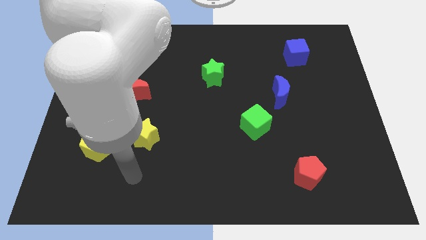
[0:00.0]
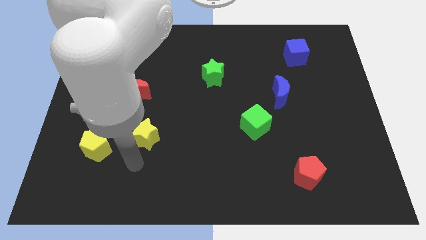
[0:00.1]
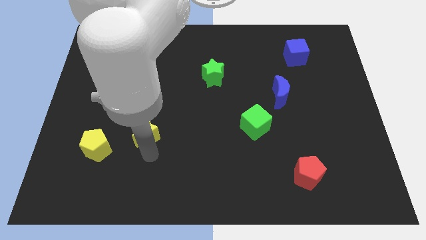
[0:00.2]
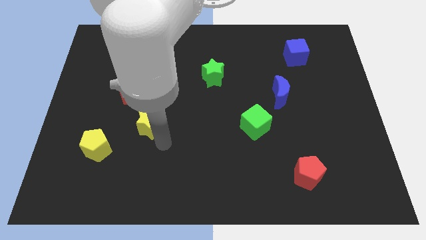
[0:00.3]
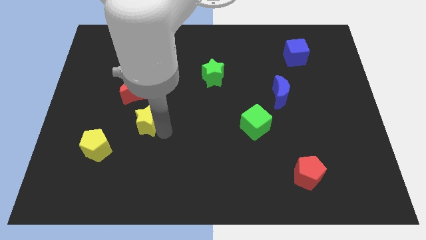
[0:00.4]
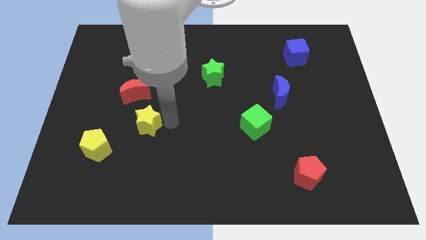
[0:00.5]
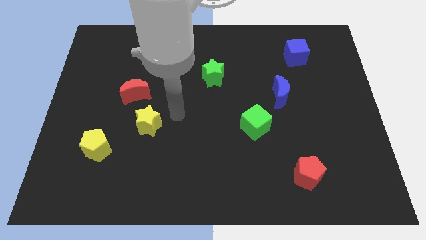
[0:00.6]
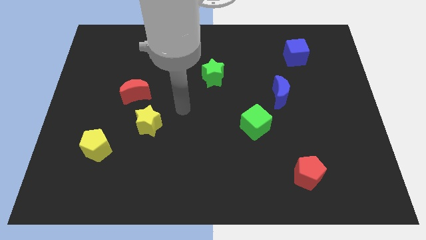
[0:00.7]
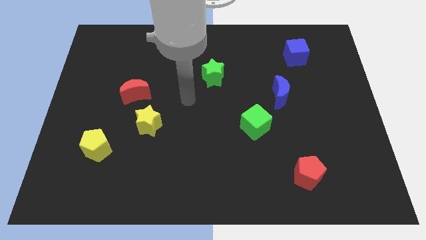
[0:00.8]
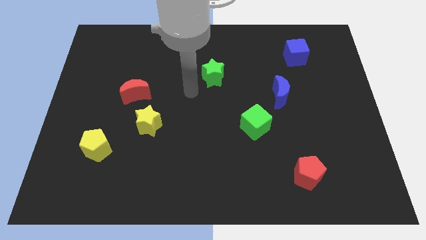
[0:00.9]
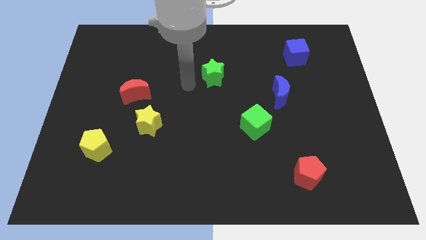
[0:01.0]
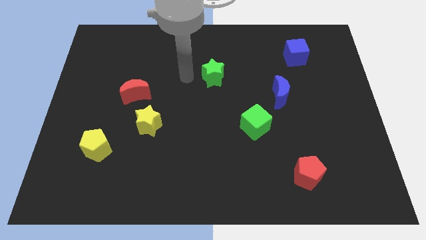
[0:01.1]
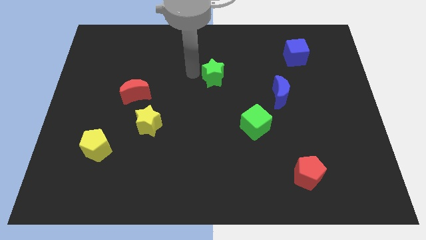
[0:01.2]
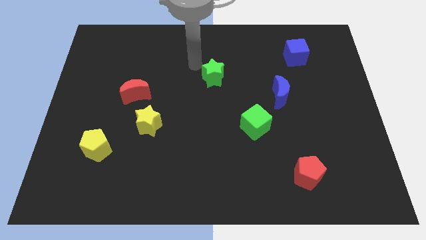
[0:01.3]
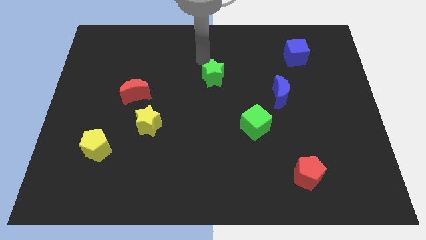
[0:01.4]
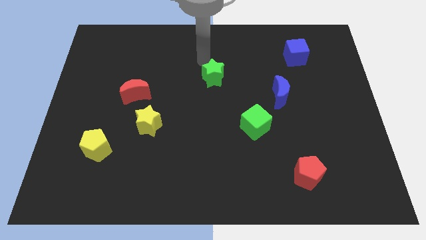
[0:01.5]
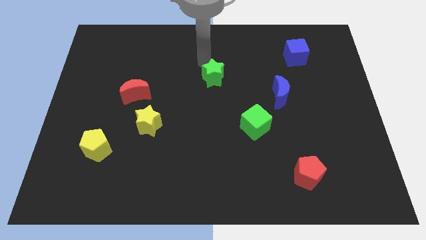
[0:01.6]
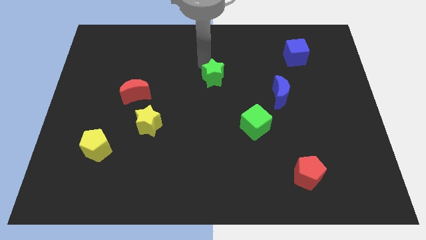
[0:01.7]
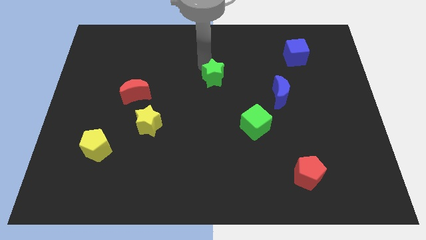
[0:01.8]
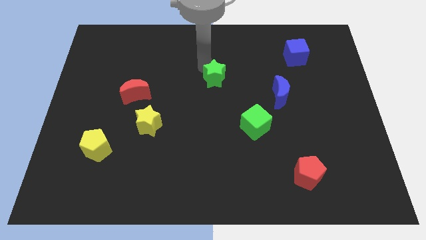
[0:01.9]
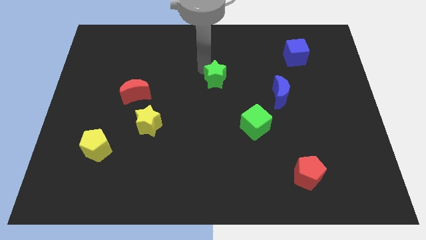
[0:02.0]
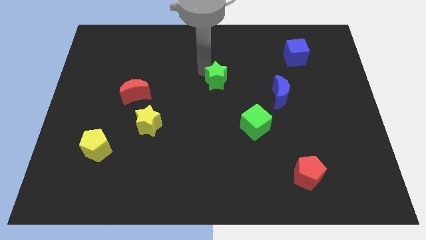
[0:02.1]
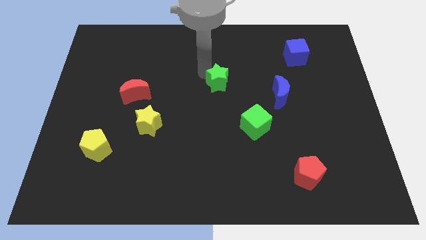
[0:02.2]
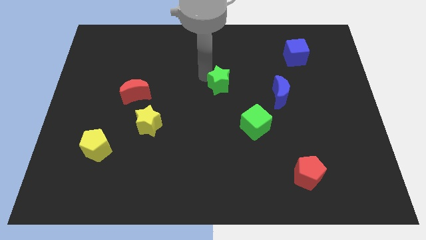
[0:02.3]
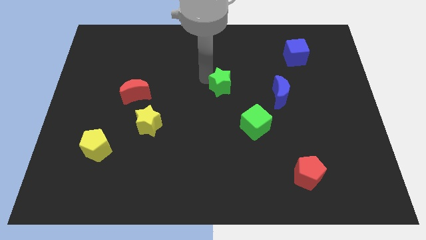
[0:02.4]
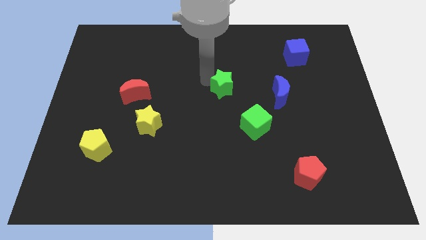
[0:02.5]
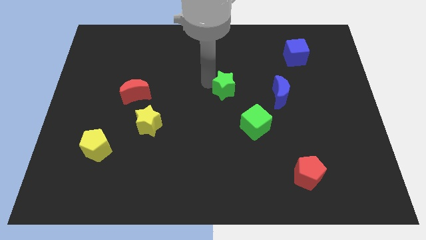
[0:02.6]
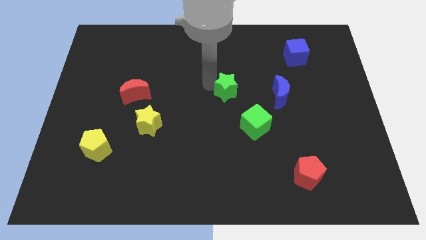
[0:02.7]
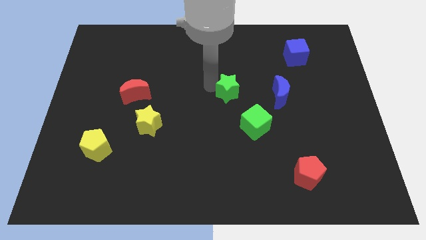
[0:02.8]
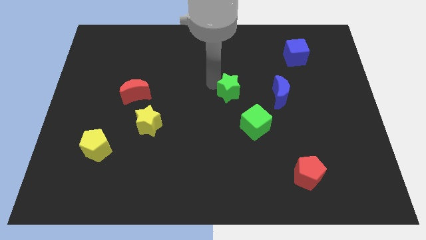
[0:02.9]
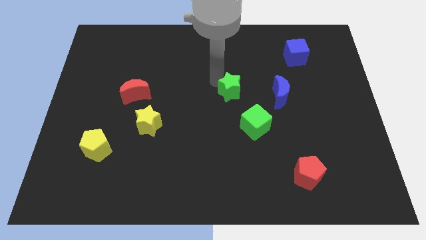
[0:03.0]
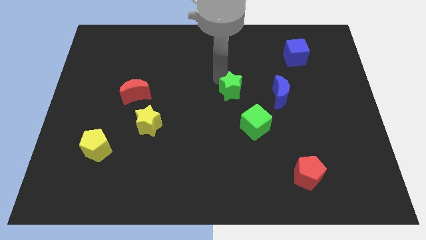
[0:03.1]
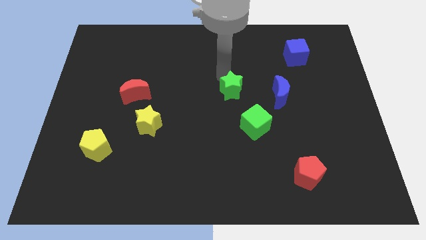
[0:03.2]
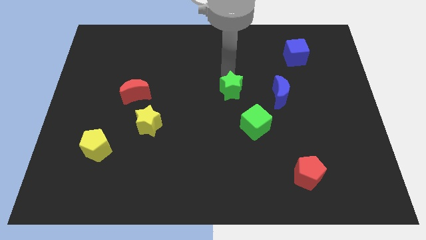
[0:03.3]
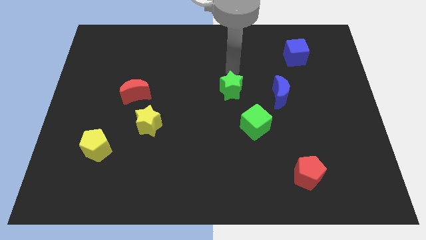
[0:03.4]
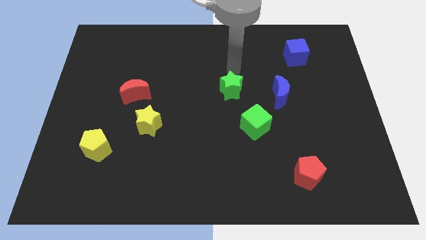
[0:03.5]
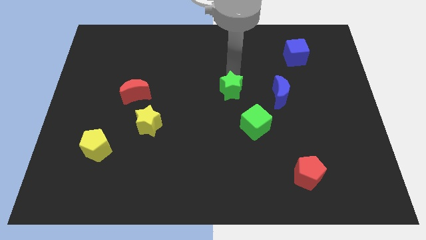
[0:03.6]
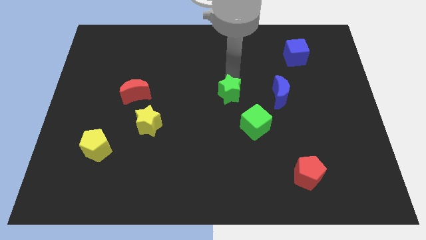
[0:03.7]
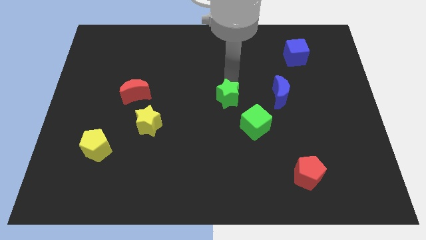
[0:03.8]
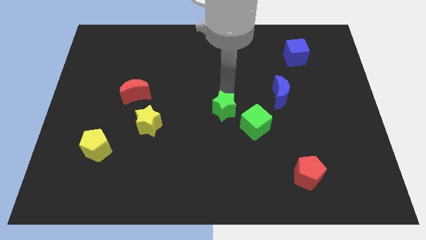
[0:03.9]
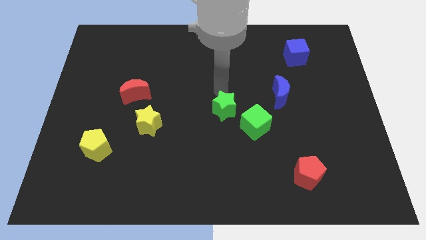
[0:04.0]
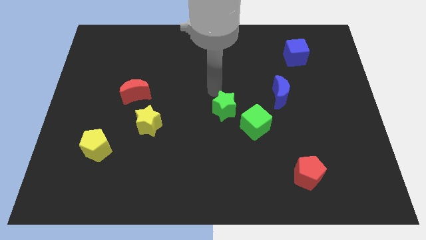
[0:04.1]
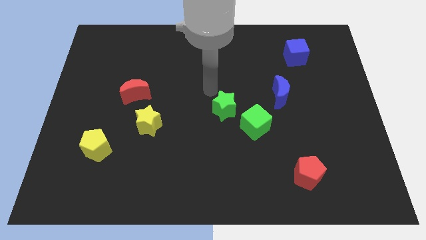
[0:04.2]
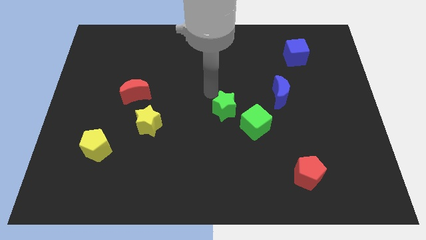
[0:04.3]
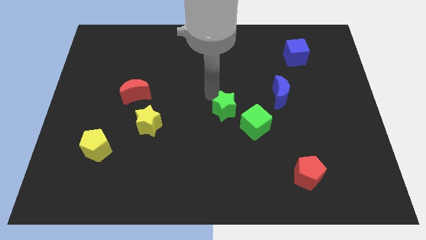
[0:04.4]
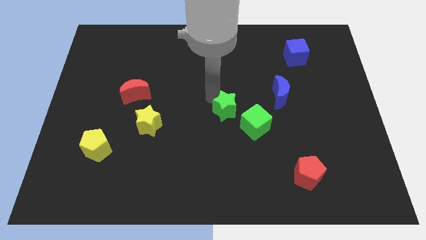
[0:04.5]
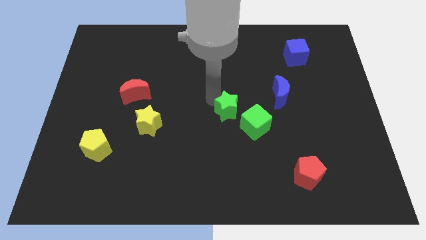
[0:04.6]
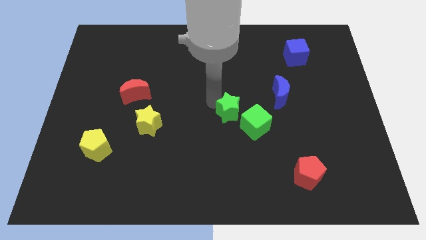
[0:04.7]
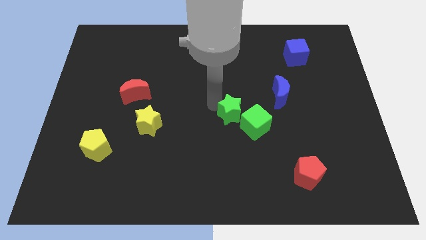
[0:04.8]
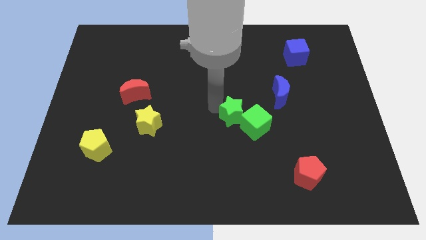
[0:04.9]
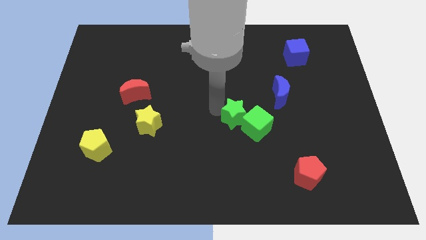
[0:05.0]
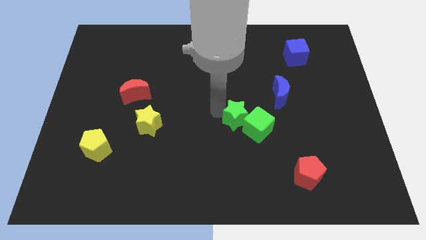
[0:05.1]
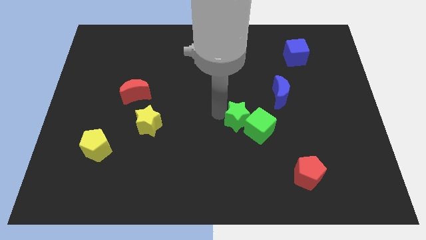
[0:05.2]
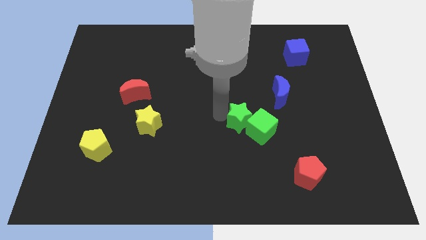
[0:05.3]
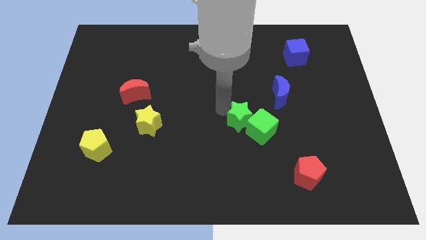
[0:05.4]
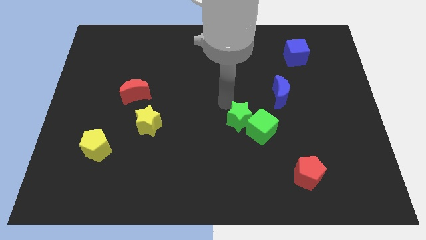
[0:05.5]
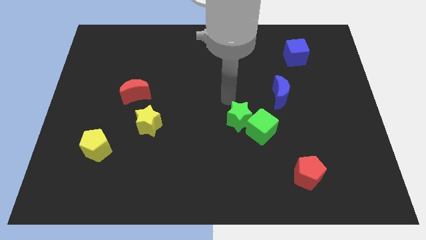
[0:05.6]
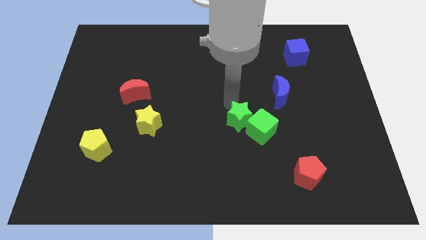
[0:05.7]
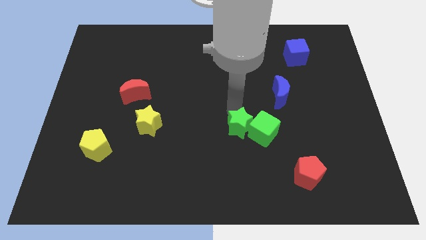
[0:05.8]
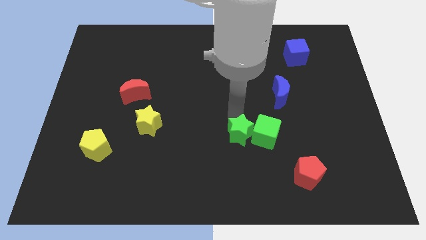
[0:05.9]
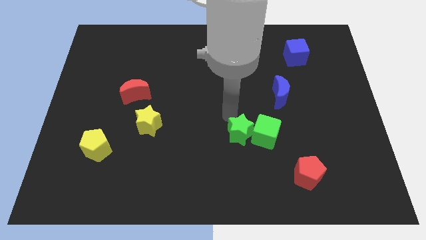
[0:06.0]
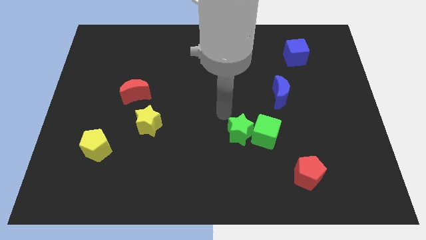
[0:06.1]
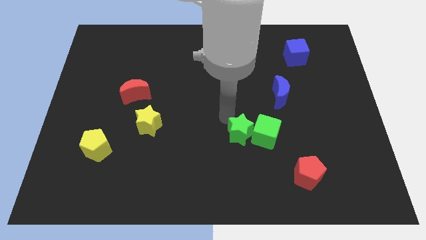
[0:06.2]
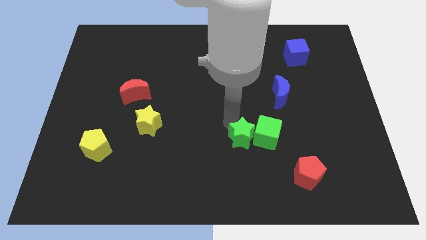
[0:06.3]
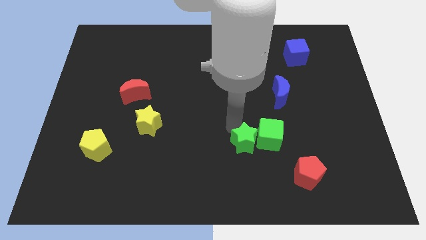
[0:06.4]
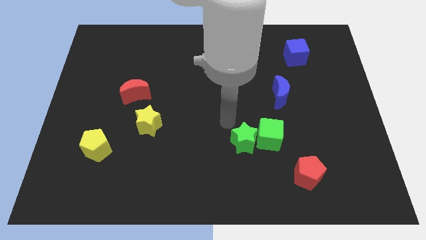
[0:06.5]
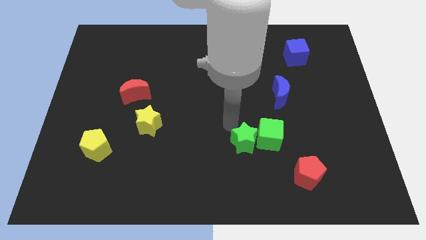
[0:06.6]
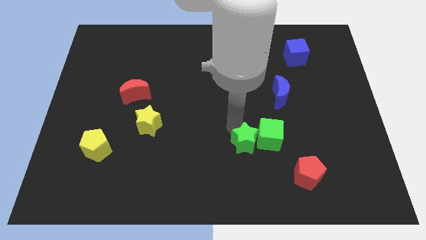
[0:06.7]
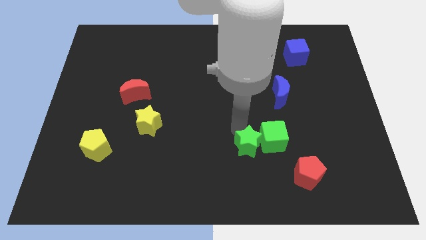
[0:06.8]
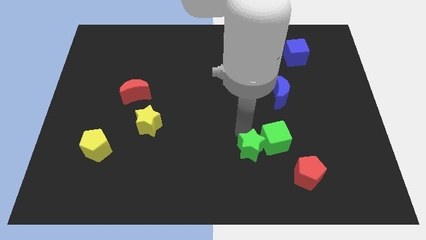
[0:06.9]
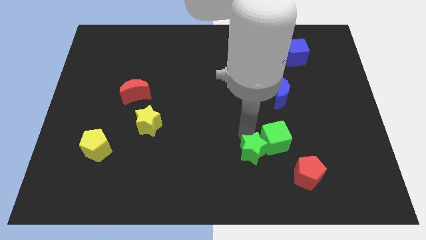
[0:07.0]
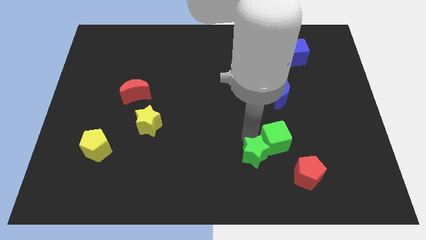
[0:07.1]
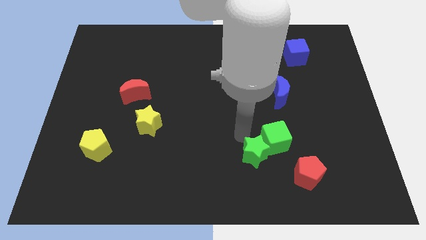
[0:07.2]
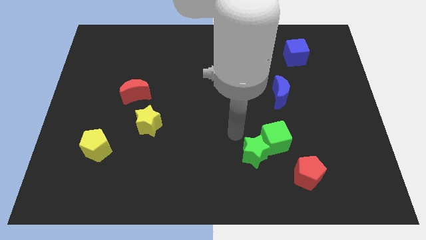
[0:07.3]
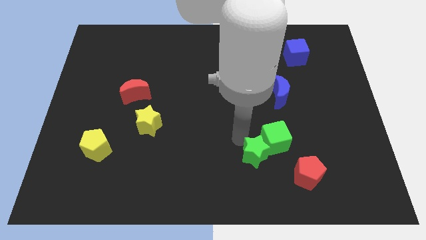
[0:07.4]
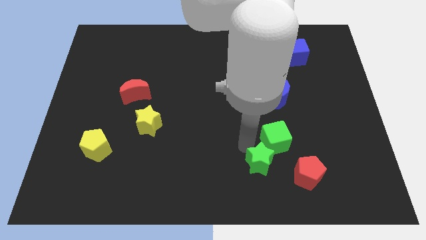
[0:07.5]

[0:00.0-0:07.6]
put the green star to the bottom of the green cube
